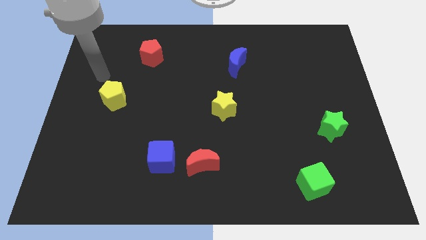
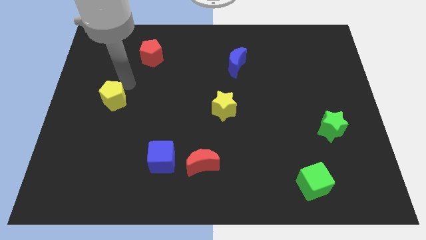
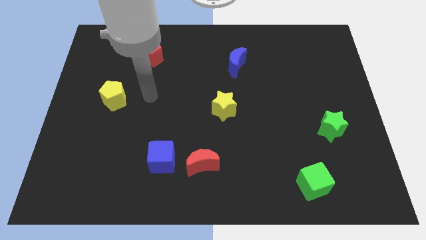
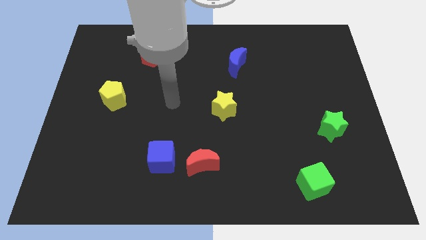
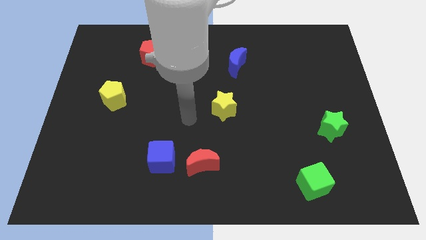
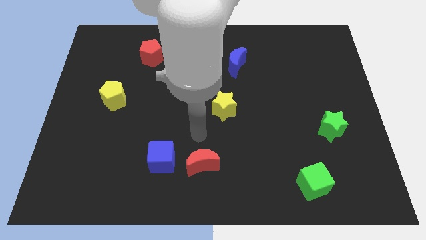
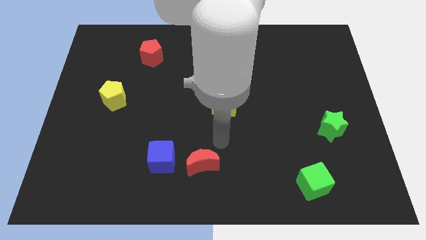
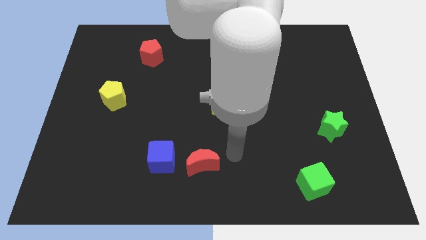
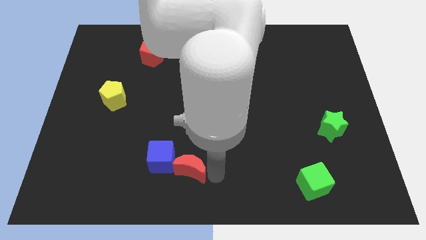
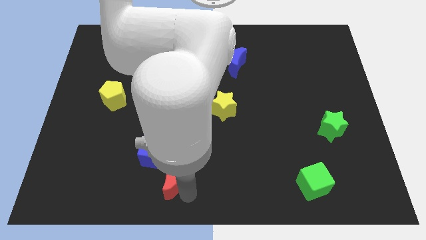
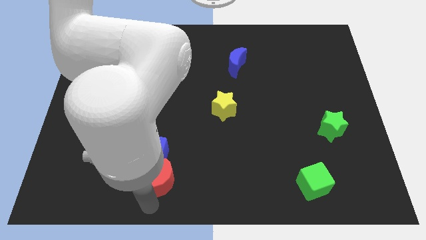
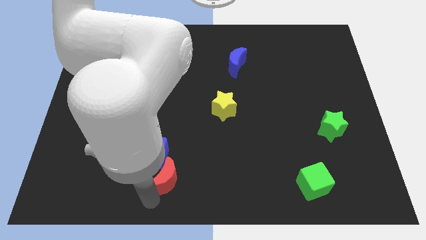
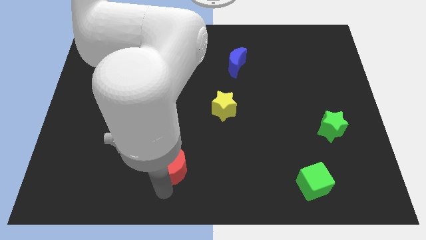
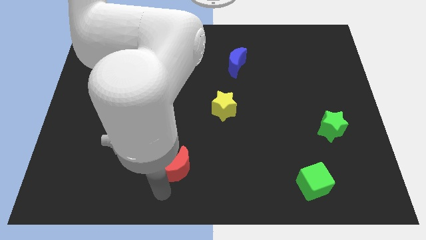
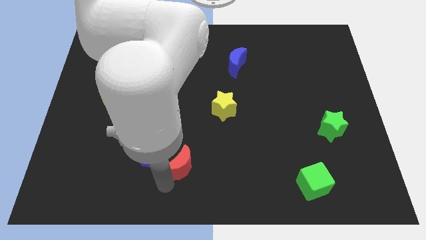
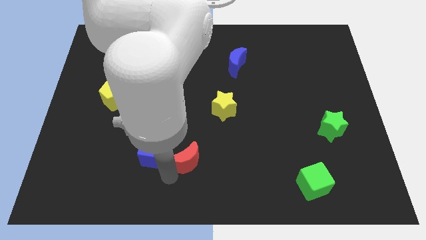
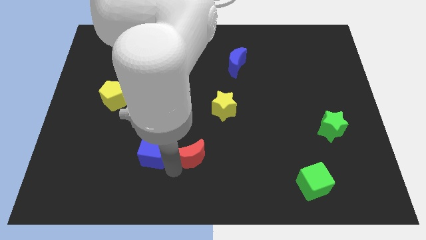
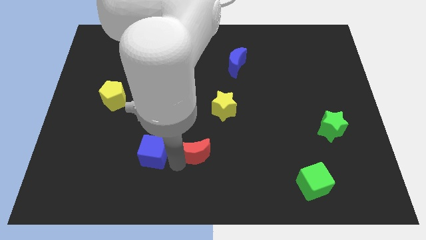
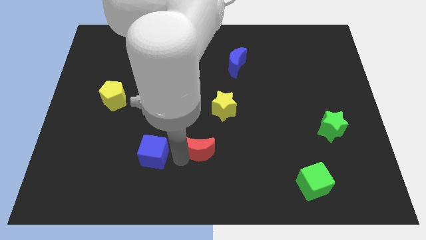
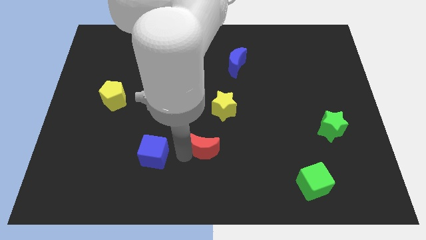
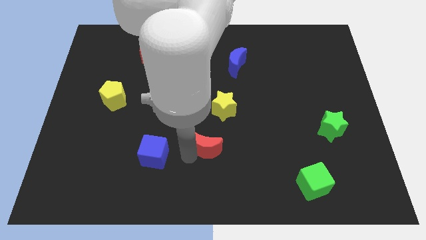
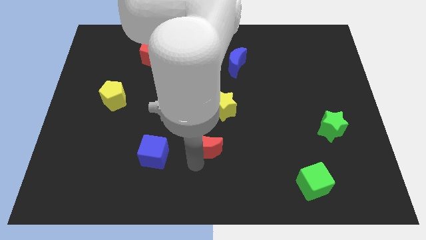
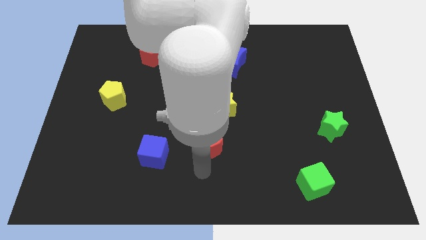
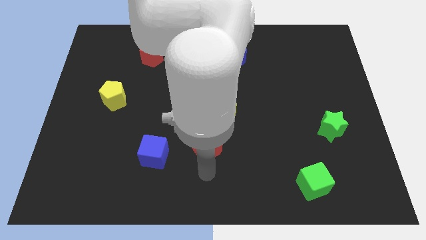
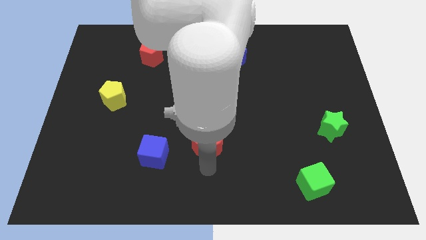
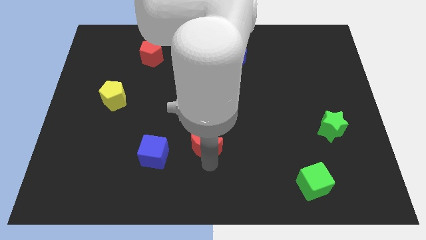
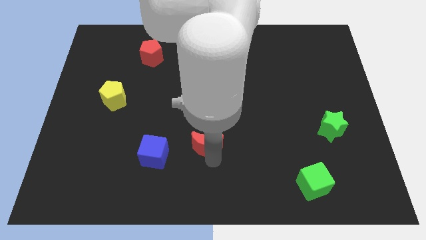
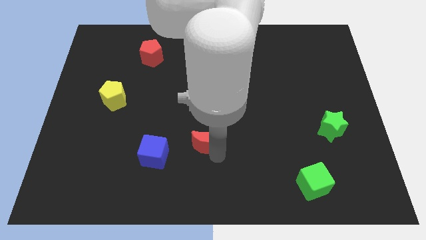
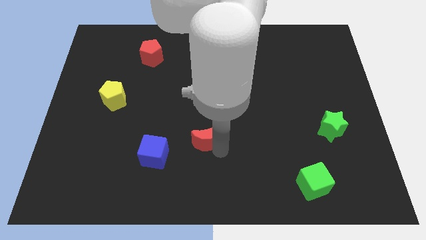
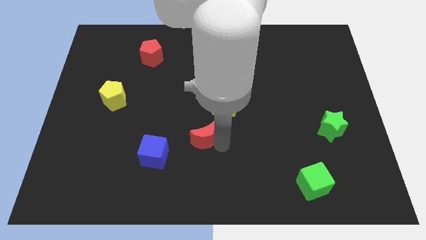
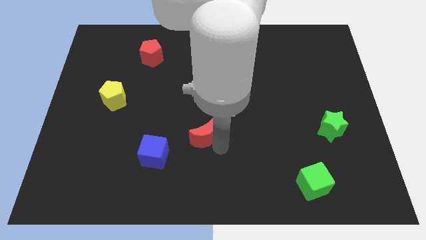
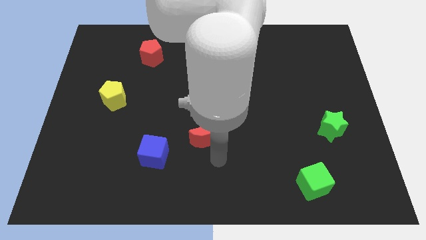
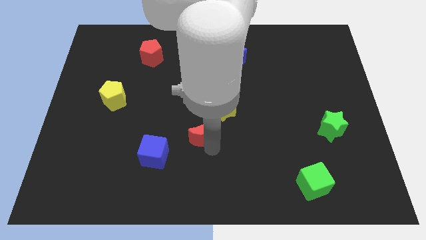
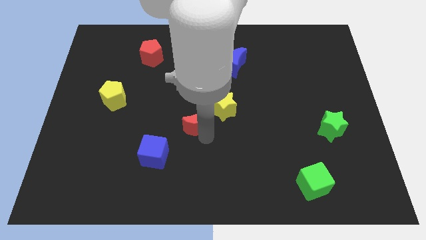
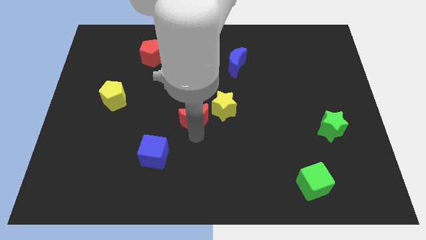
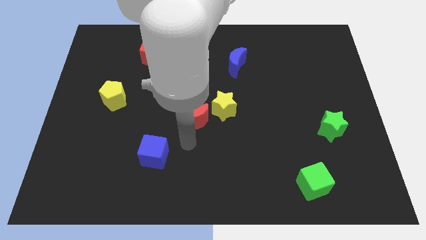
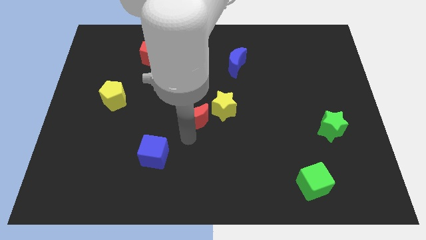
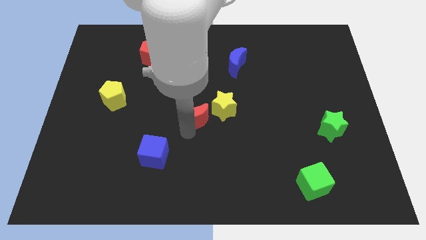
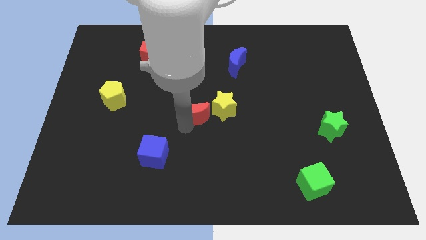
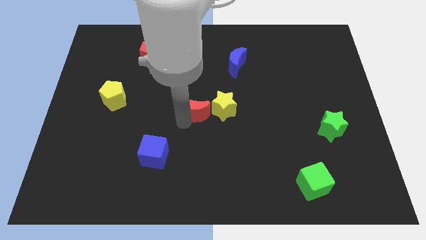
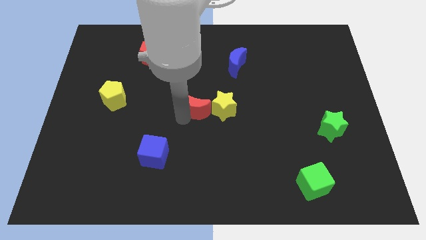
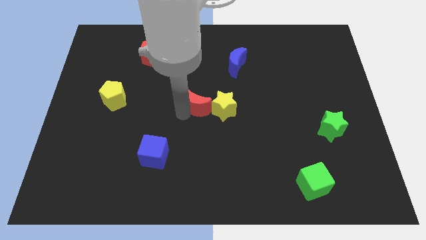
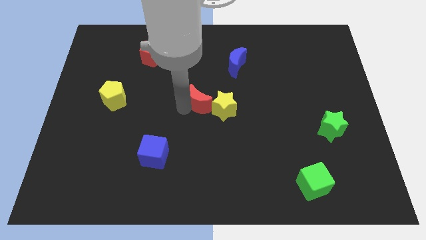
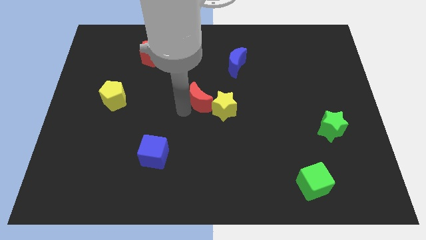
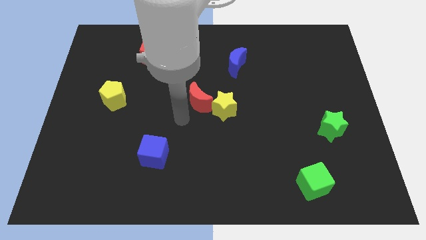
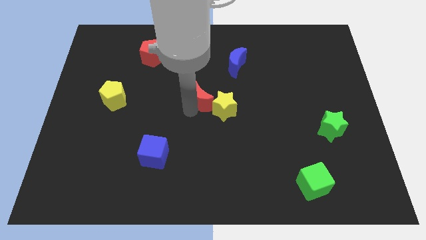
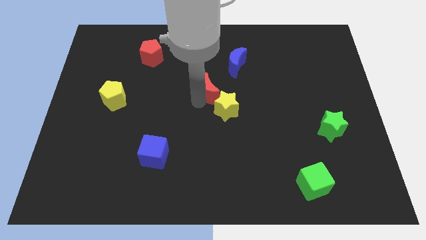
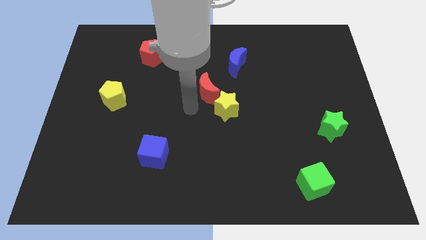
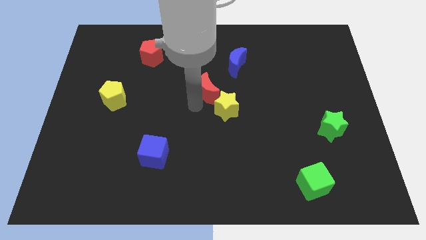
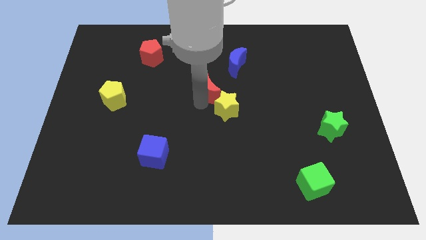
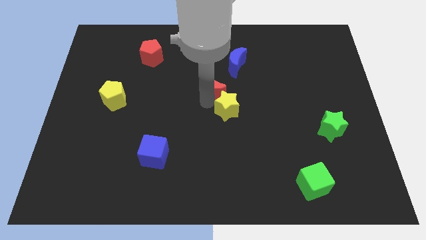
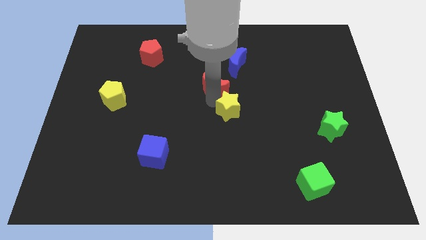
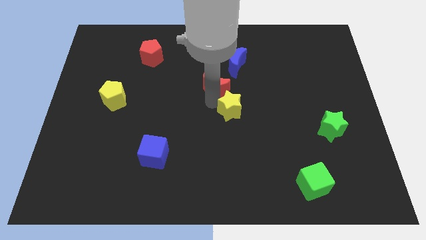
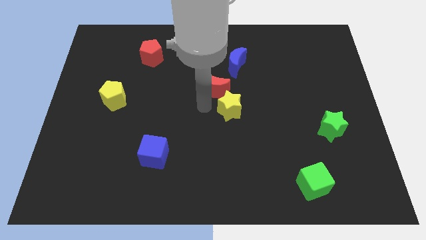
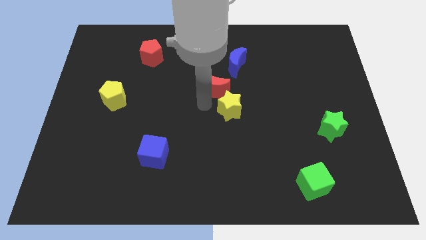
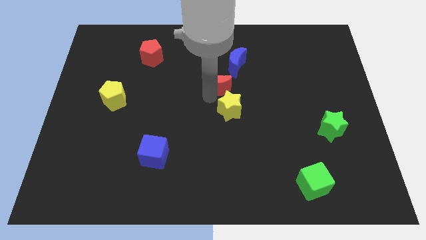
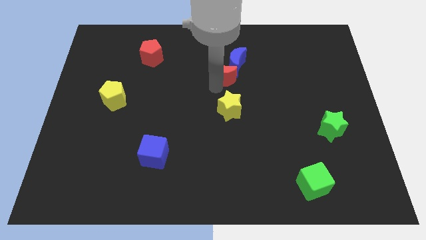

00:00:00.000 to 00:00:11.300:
slide the red moon close to the blue moon

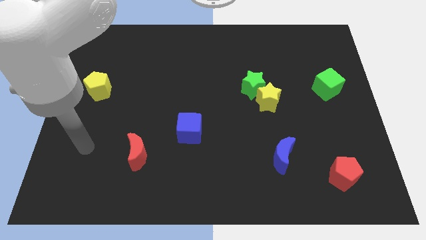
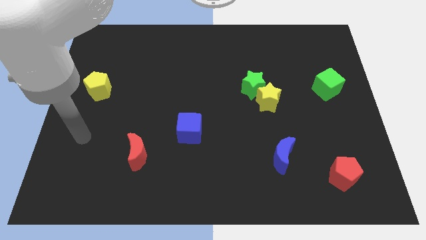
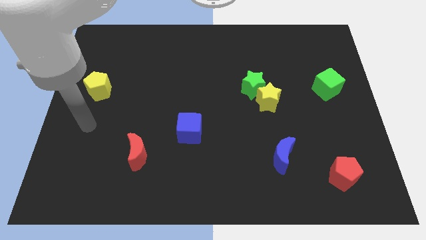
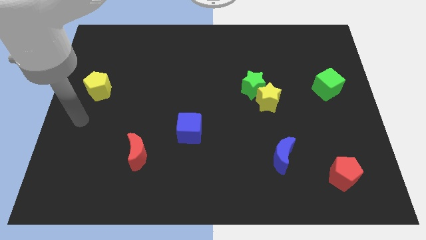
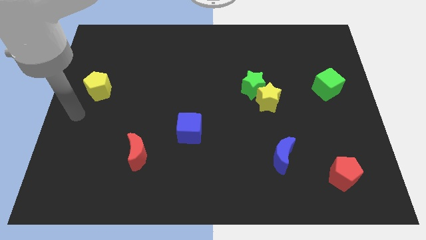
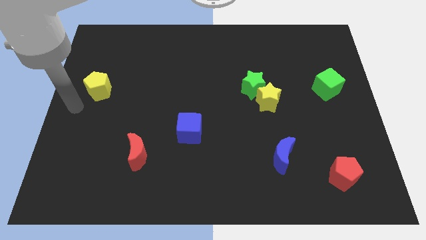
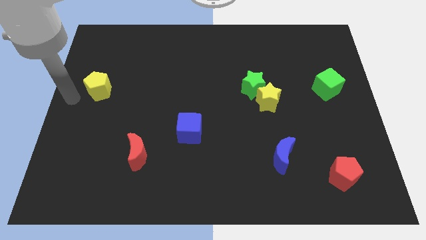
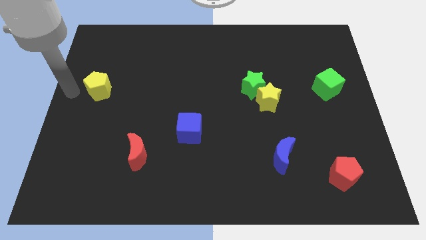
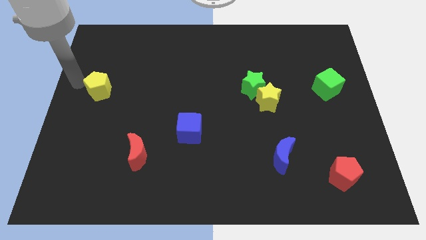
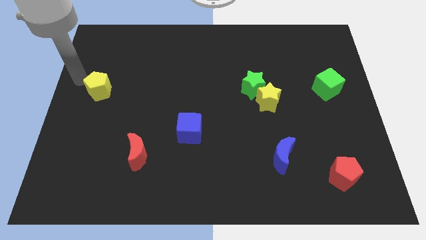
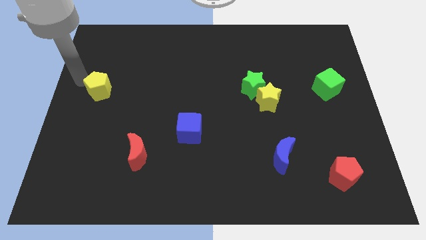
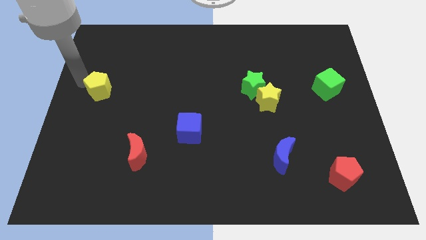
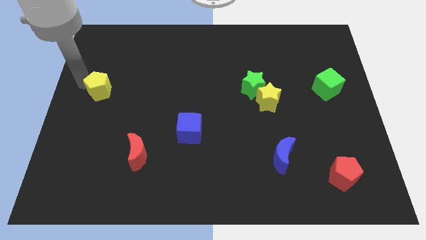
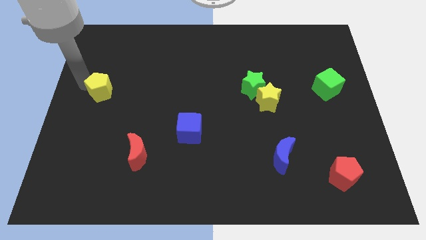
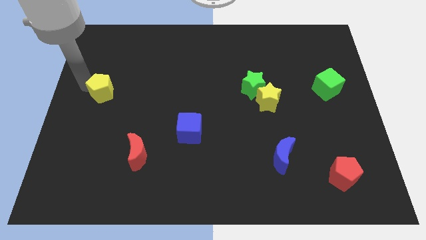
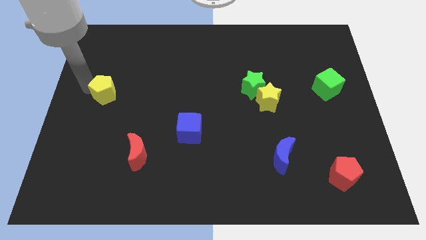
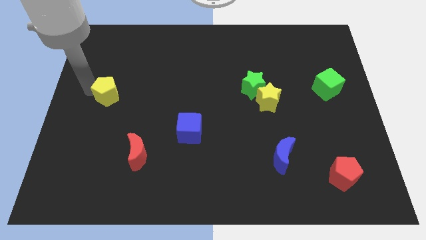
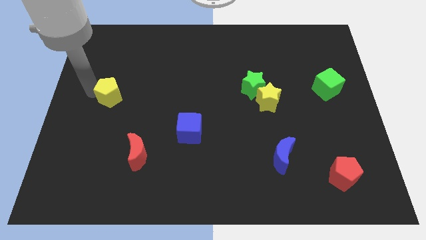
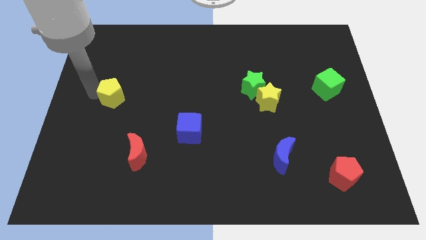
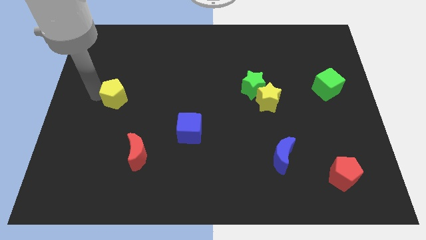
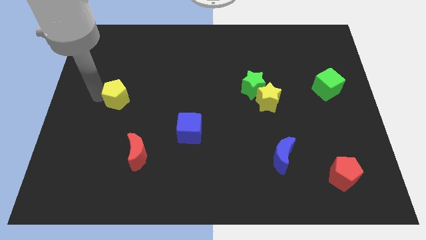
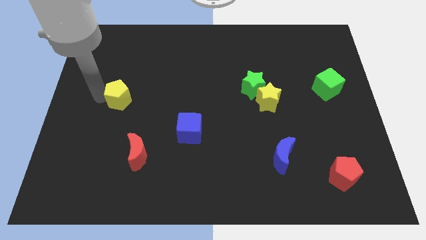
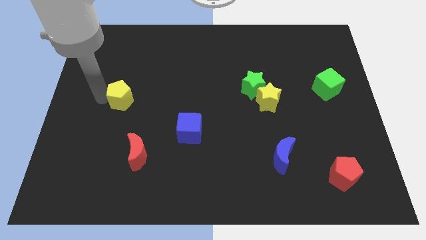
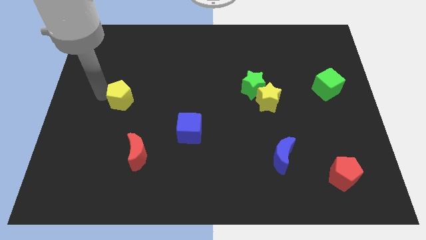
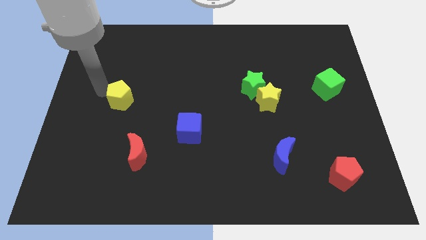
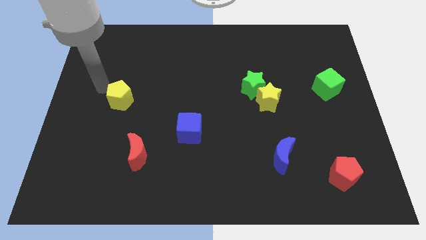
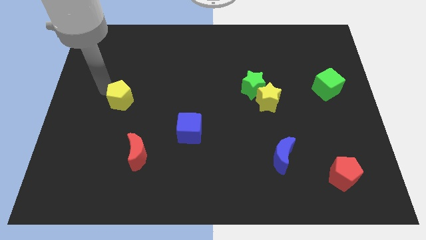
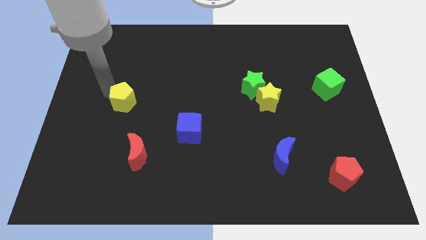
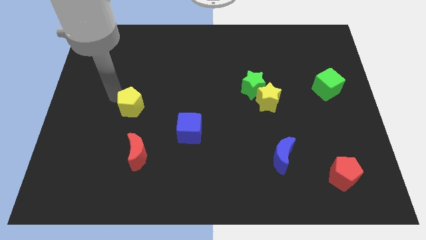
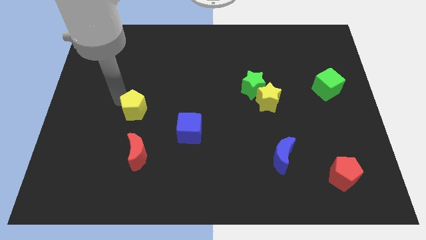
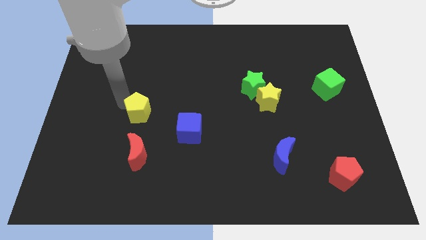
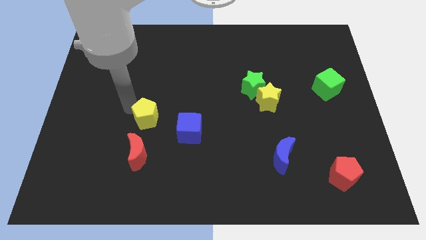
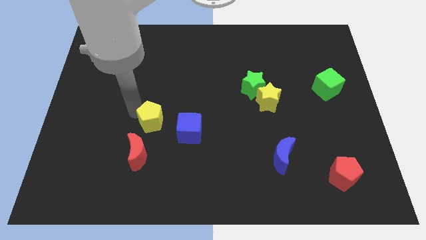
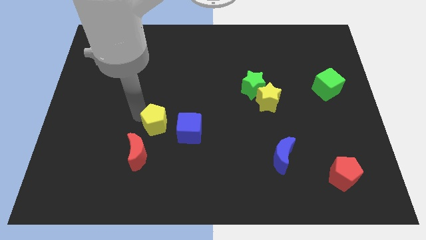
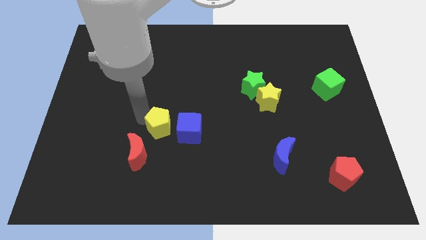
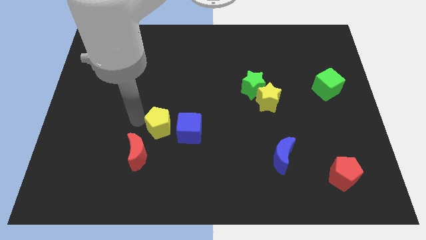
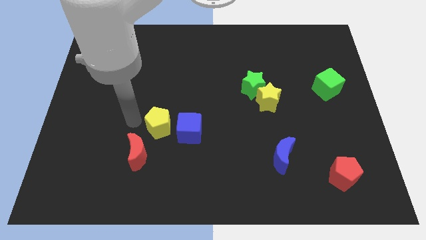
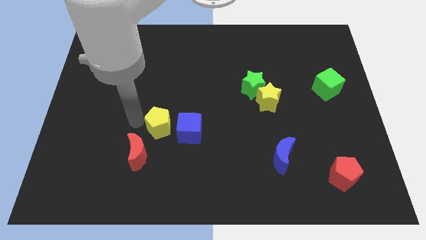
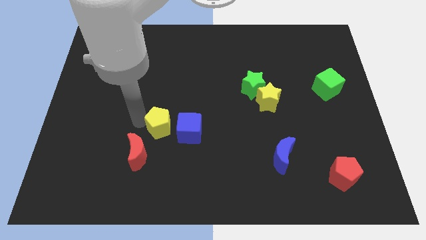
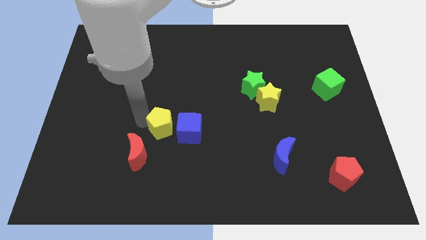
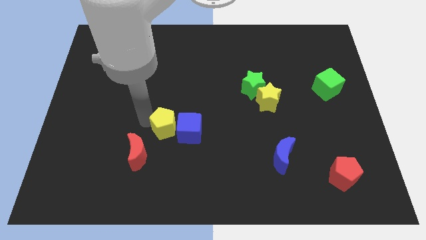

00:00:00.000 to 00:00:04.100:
put the yellow pentagon close to the blue cube
